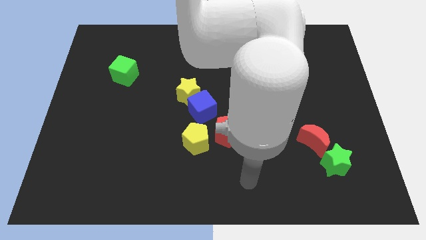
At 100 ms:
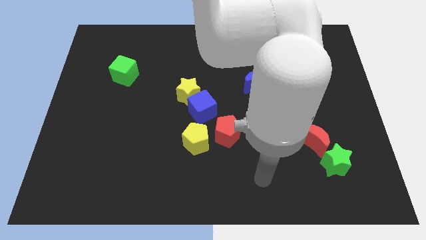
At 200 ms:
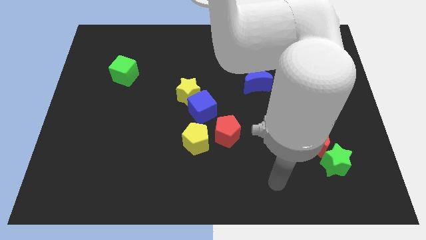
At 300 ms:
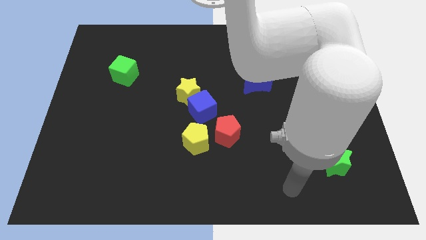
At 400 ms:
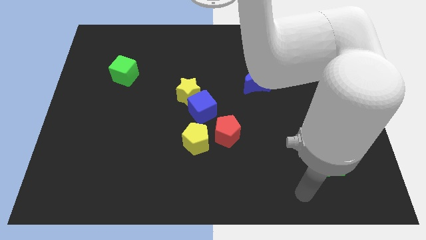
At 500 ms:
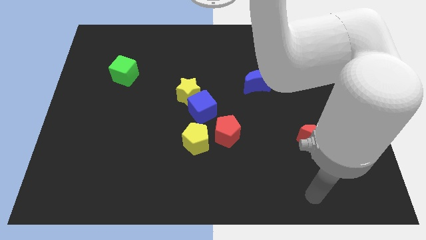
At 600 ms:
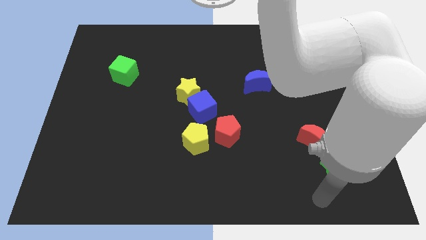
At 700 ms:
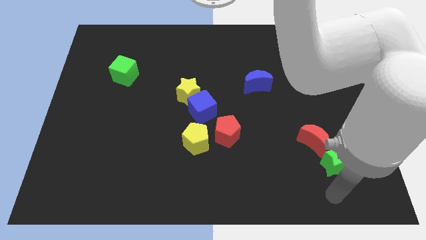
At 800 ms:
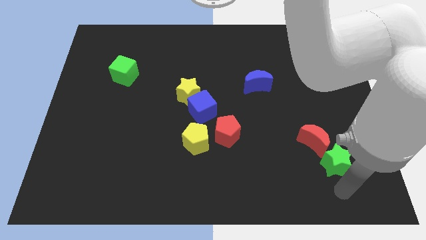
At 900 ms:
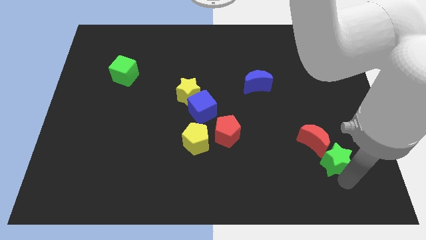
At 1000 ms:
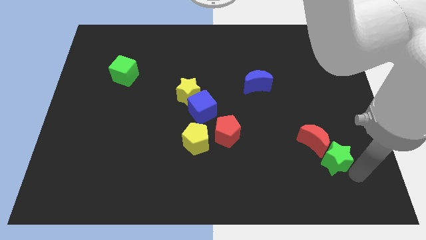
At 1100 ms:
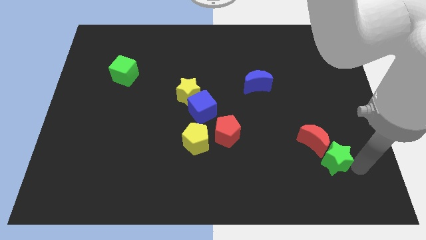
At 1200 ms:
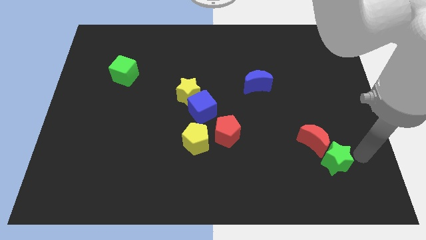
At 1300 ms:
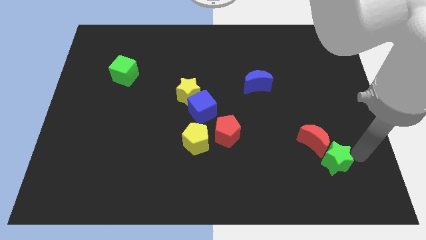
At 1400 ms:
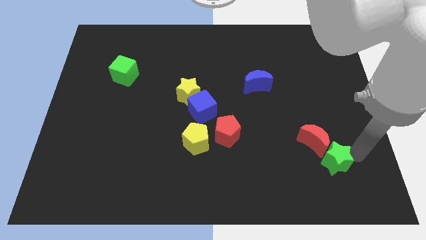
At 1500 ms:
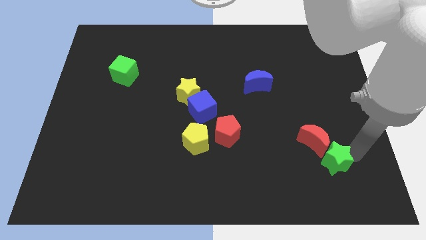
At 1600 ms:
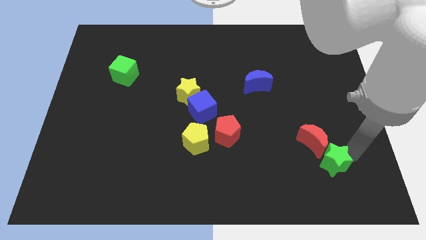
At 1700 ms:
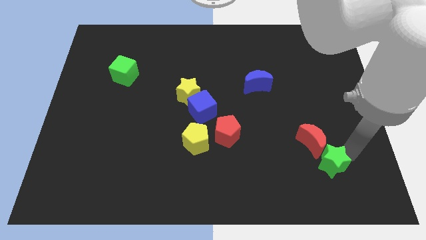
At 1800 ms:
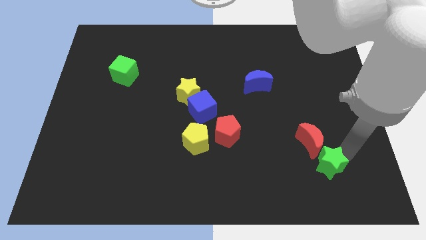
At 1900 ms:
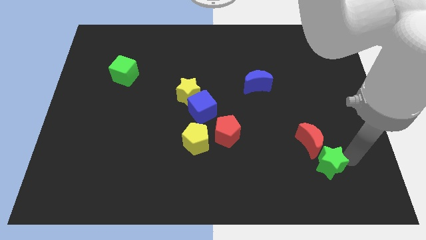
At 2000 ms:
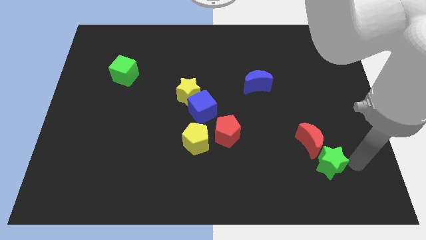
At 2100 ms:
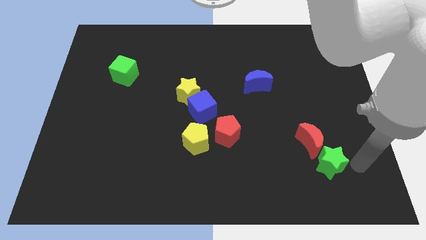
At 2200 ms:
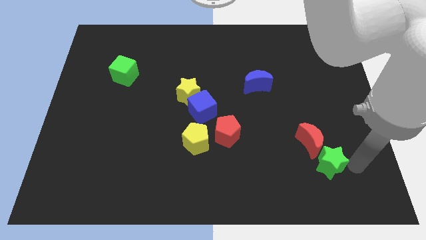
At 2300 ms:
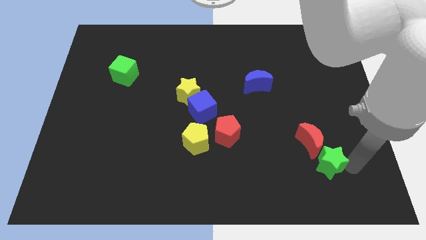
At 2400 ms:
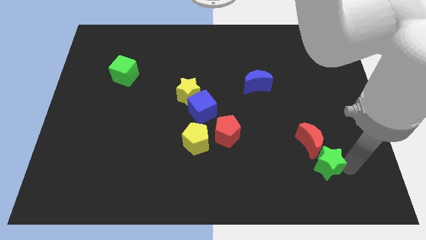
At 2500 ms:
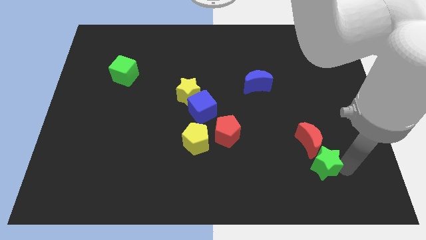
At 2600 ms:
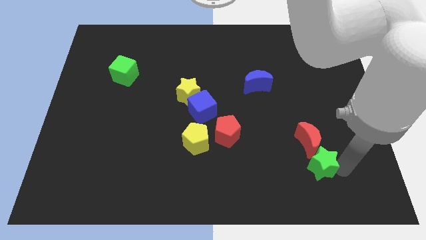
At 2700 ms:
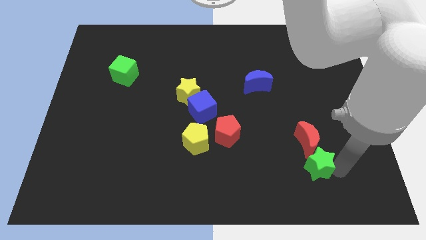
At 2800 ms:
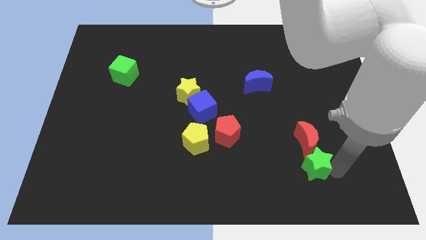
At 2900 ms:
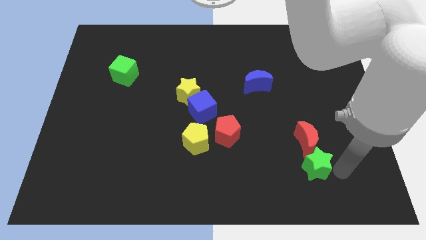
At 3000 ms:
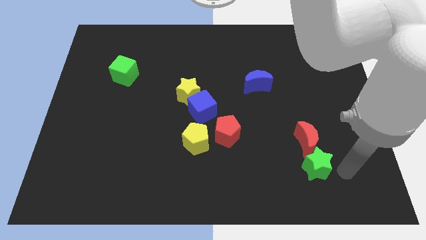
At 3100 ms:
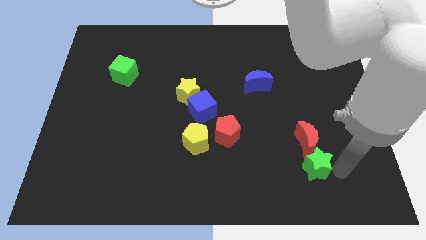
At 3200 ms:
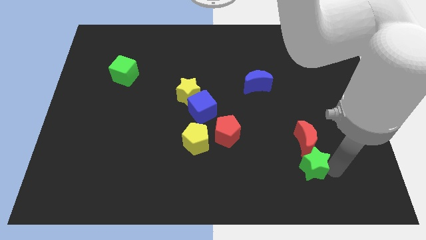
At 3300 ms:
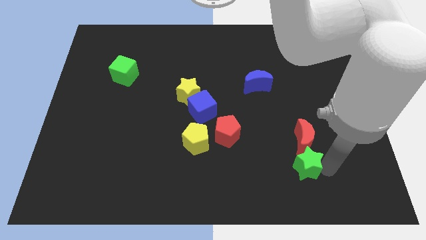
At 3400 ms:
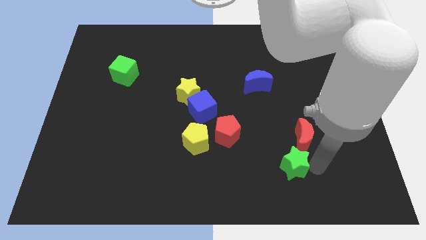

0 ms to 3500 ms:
move the green star left a little bit

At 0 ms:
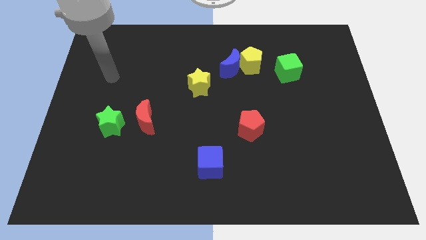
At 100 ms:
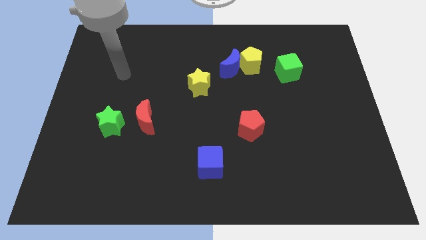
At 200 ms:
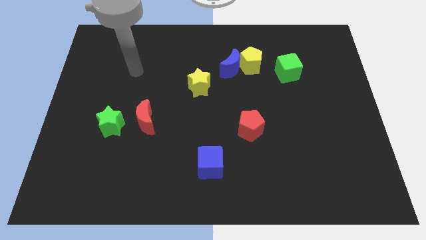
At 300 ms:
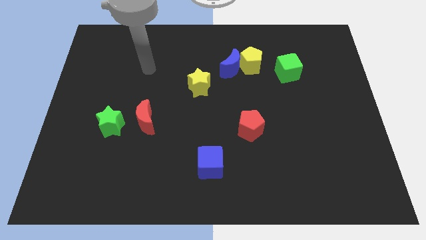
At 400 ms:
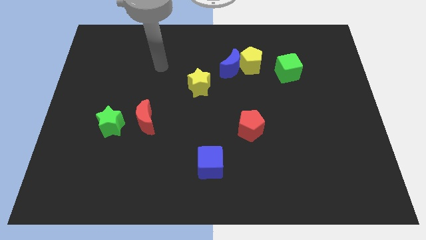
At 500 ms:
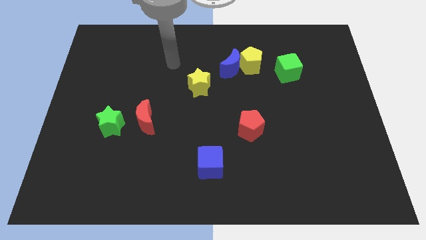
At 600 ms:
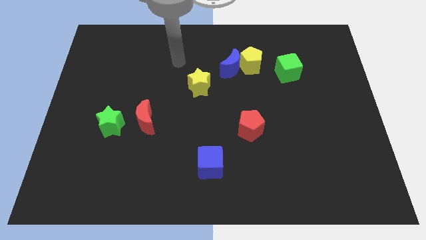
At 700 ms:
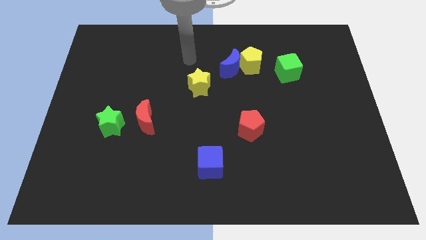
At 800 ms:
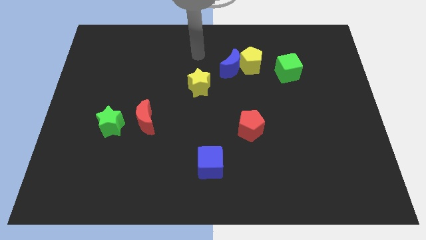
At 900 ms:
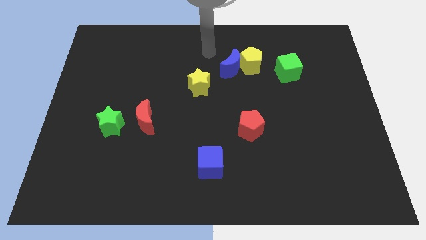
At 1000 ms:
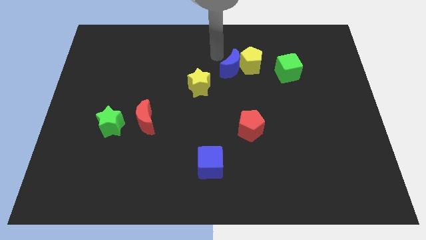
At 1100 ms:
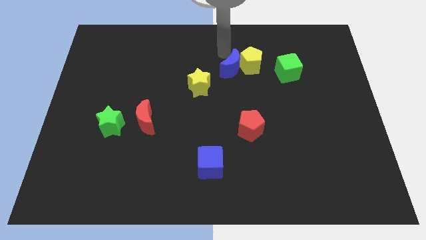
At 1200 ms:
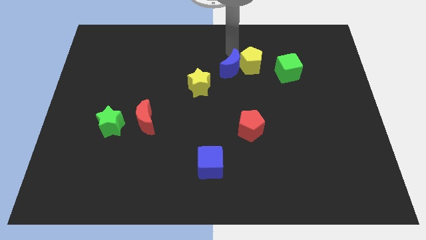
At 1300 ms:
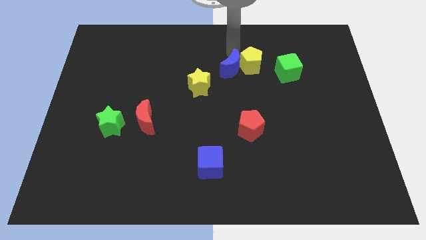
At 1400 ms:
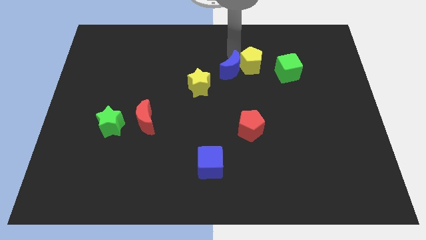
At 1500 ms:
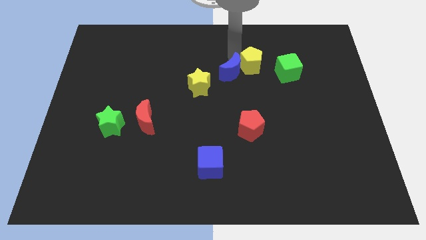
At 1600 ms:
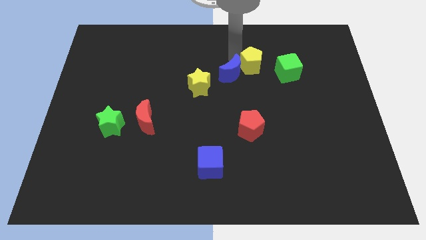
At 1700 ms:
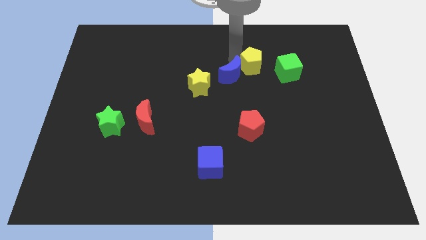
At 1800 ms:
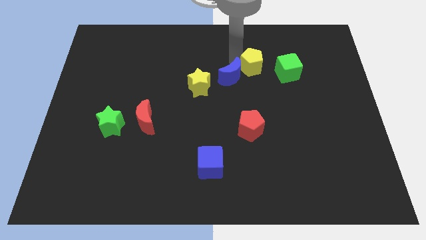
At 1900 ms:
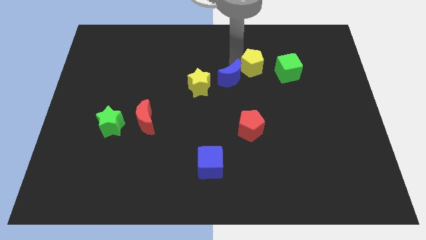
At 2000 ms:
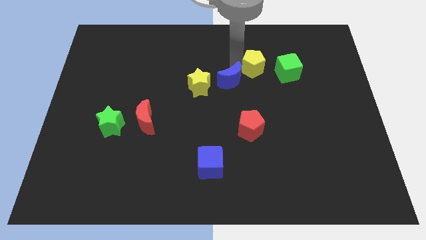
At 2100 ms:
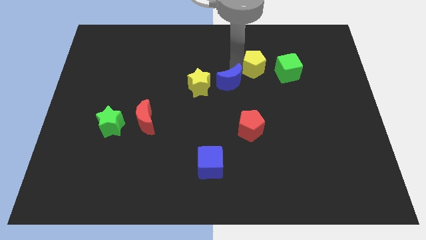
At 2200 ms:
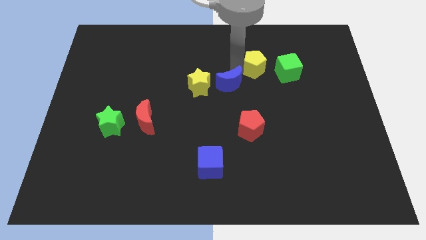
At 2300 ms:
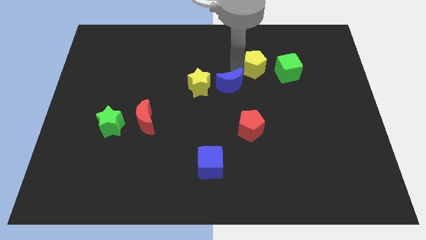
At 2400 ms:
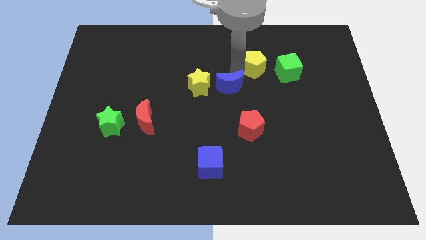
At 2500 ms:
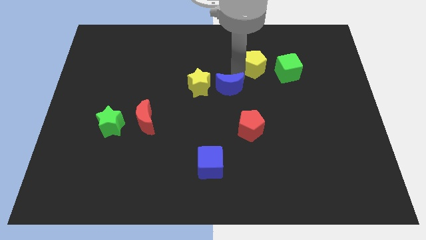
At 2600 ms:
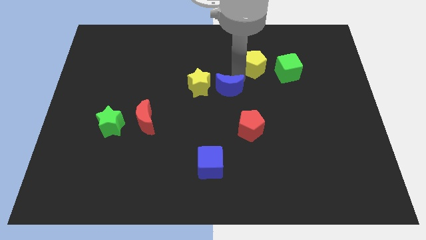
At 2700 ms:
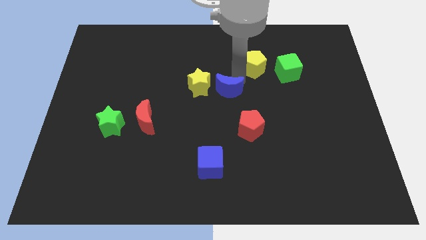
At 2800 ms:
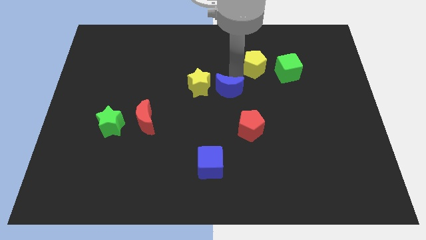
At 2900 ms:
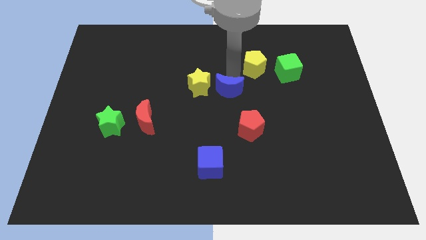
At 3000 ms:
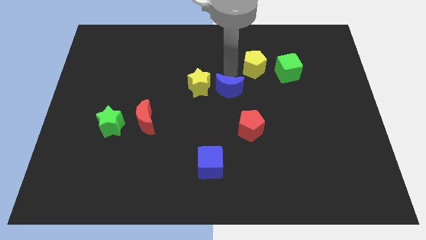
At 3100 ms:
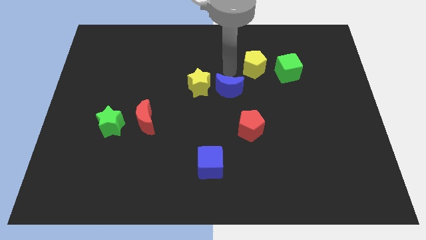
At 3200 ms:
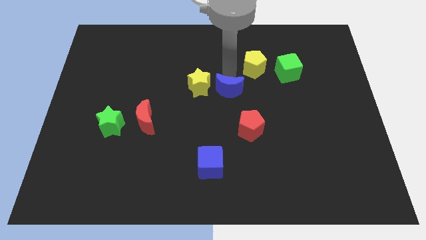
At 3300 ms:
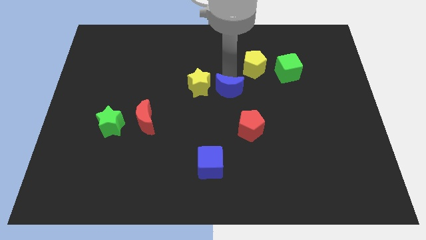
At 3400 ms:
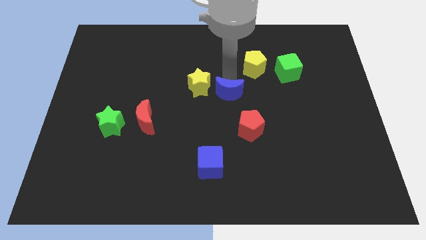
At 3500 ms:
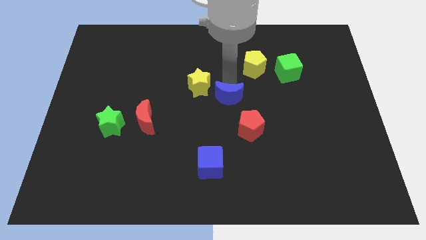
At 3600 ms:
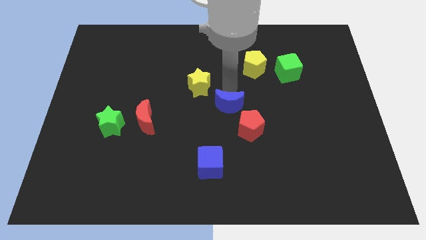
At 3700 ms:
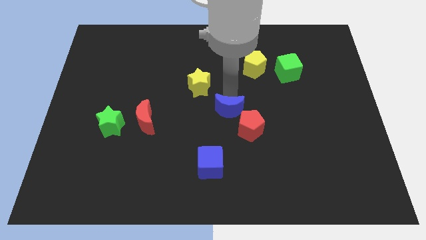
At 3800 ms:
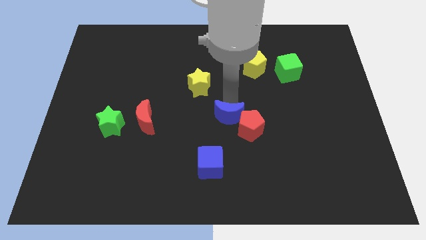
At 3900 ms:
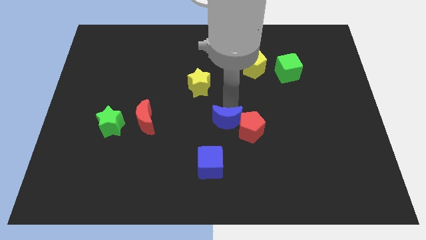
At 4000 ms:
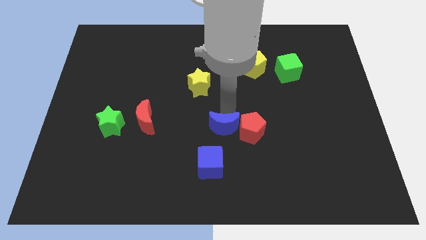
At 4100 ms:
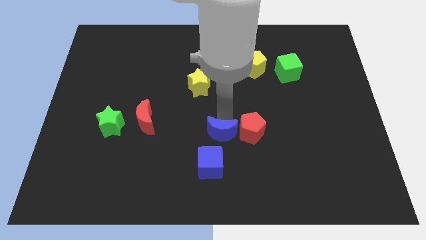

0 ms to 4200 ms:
move the blue moon down

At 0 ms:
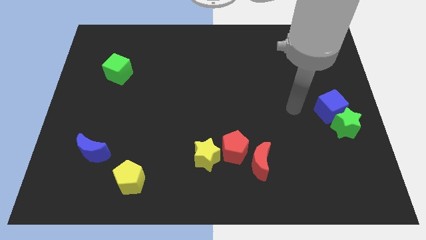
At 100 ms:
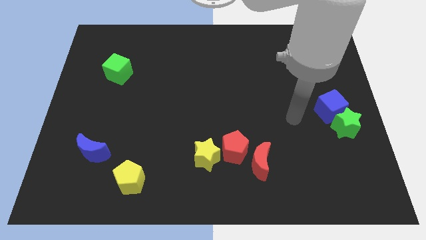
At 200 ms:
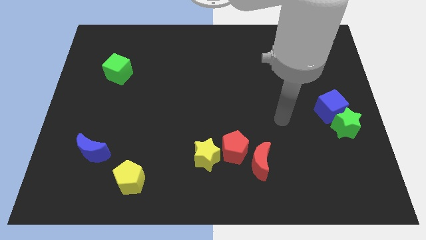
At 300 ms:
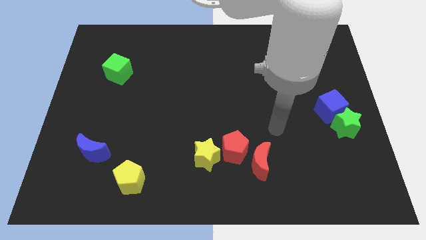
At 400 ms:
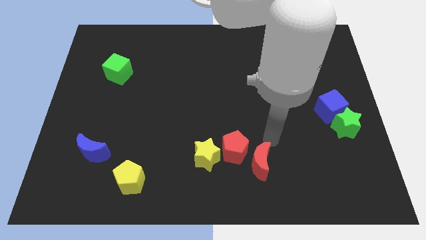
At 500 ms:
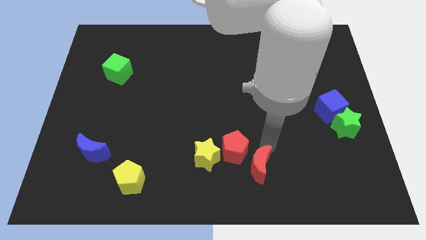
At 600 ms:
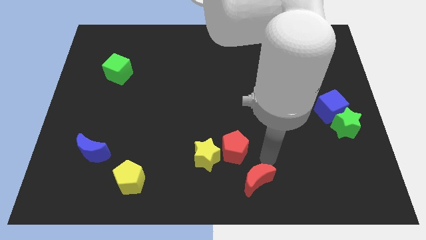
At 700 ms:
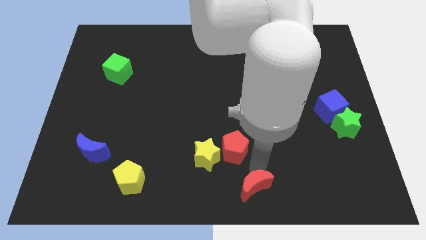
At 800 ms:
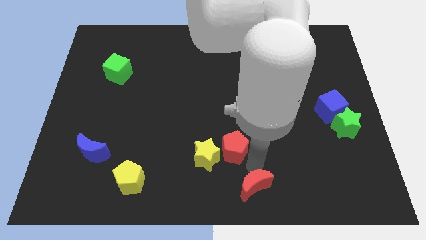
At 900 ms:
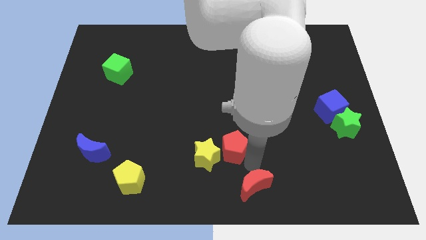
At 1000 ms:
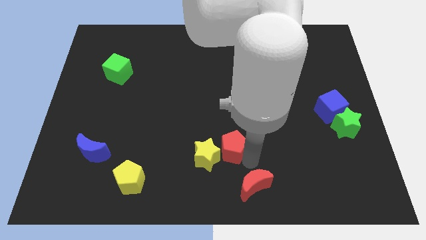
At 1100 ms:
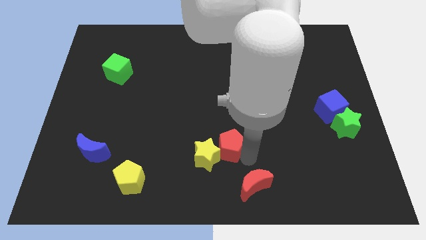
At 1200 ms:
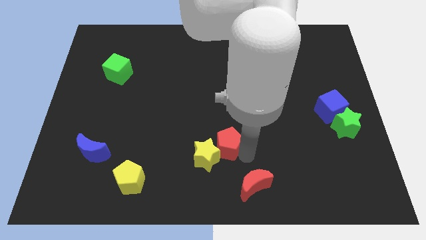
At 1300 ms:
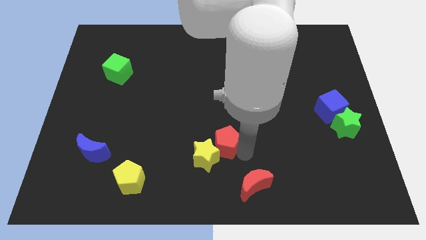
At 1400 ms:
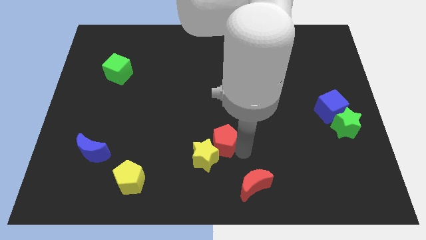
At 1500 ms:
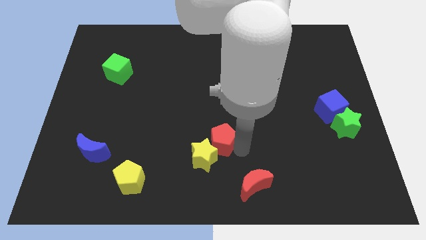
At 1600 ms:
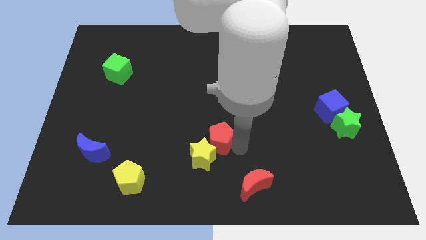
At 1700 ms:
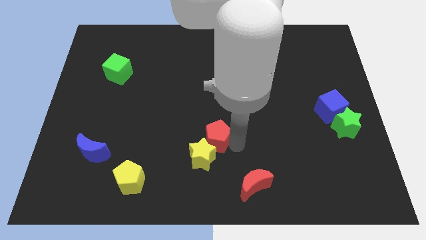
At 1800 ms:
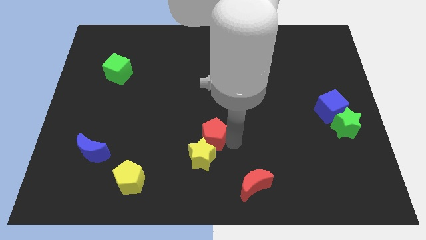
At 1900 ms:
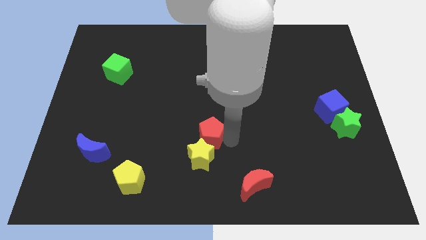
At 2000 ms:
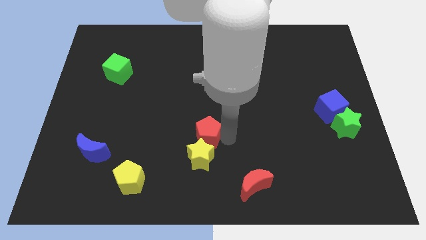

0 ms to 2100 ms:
push the red pentagon upwards and then to the left a little
